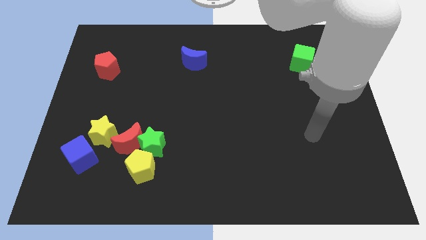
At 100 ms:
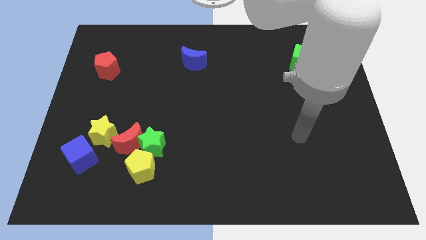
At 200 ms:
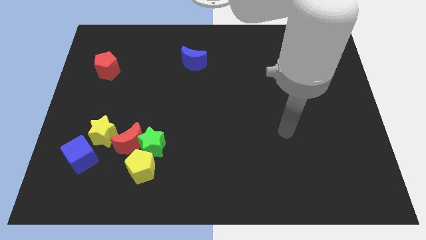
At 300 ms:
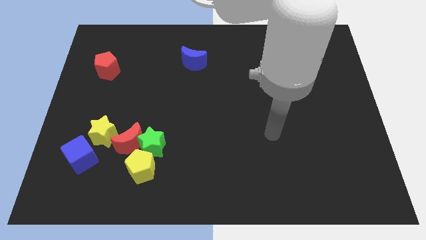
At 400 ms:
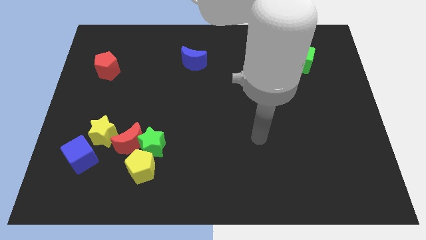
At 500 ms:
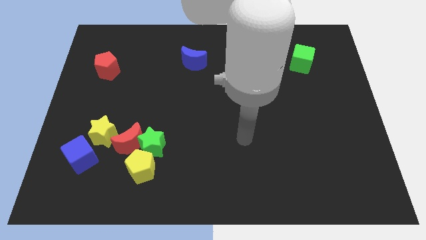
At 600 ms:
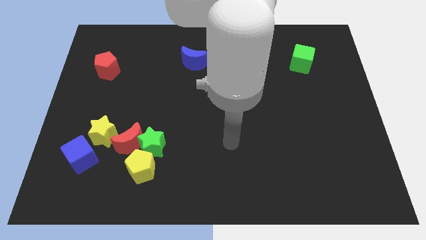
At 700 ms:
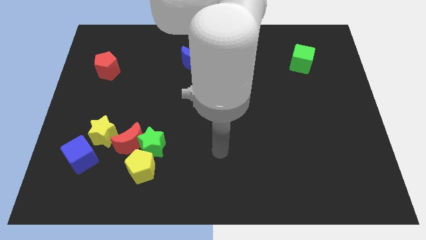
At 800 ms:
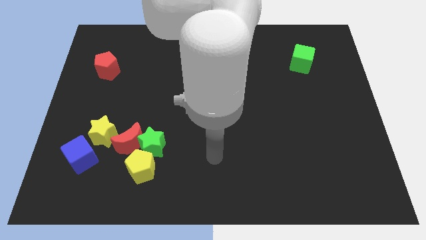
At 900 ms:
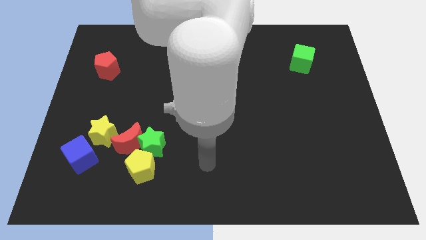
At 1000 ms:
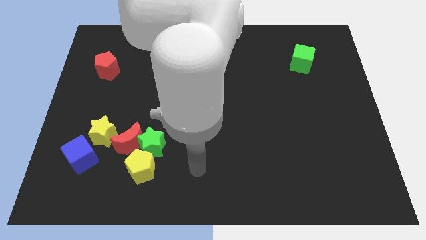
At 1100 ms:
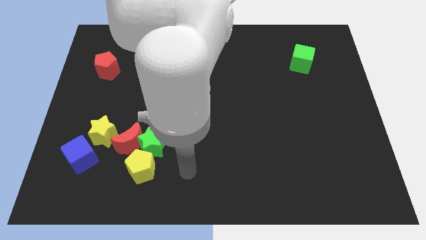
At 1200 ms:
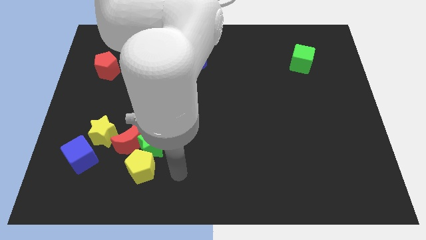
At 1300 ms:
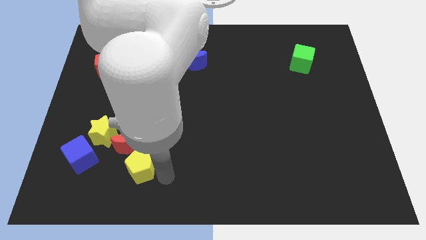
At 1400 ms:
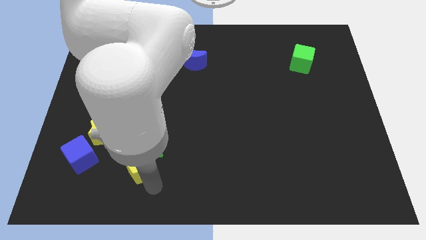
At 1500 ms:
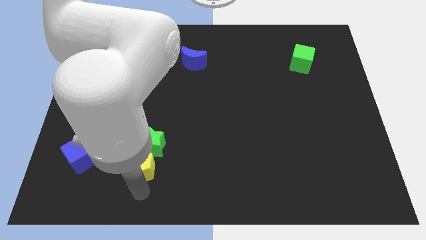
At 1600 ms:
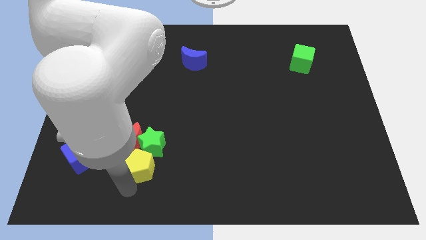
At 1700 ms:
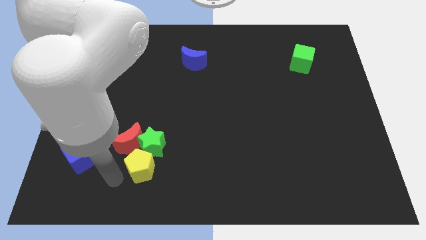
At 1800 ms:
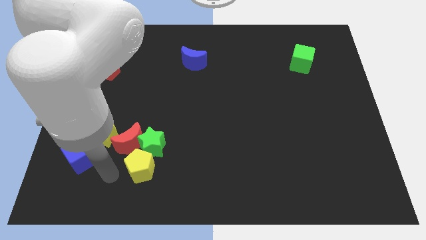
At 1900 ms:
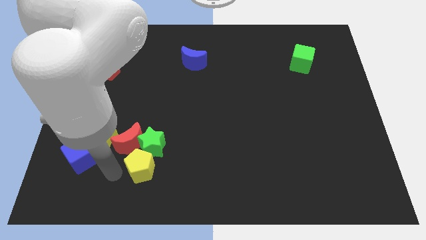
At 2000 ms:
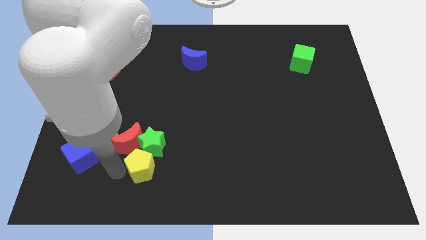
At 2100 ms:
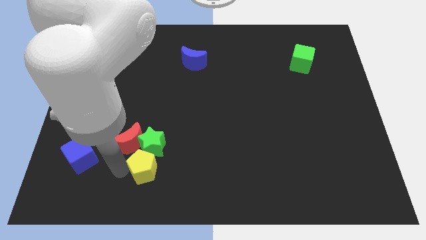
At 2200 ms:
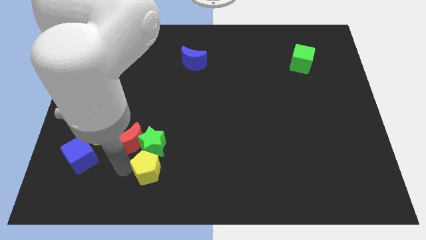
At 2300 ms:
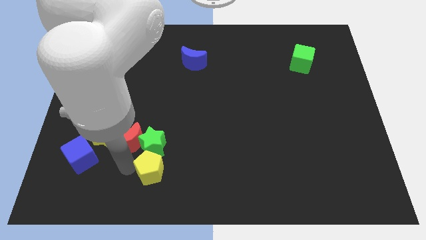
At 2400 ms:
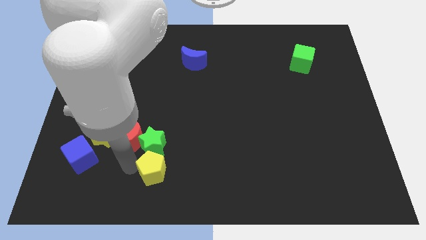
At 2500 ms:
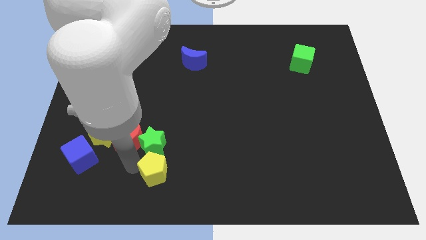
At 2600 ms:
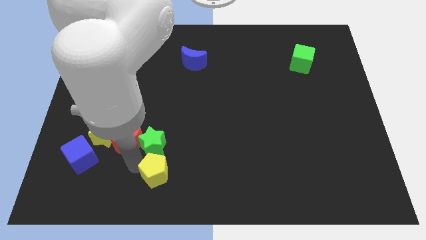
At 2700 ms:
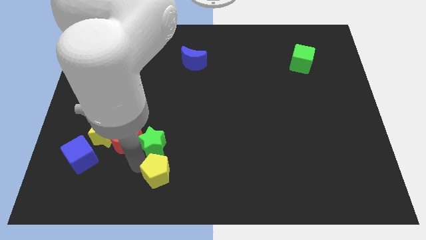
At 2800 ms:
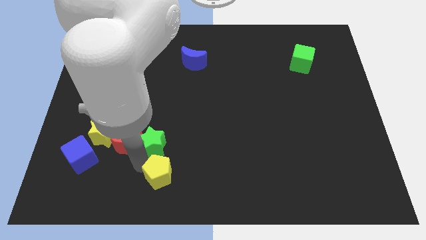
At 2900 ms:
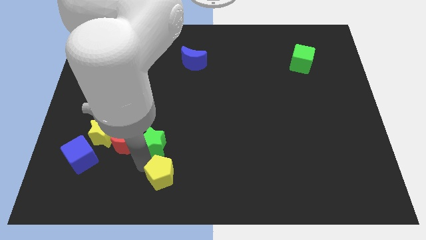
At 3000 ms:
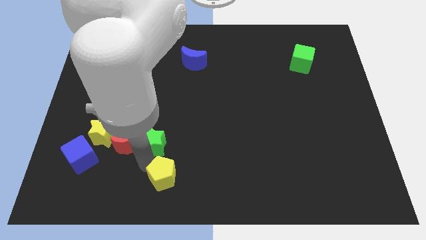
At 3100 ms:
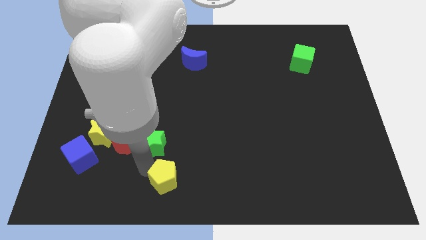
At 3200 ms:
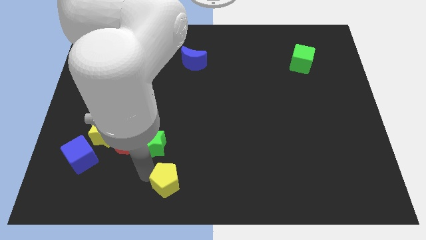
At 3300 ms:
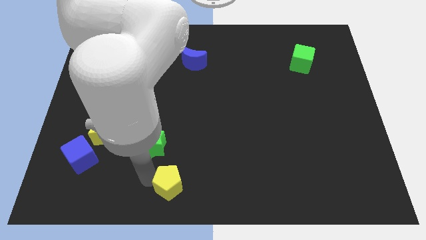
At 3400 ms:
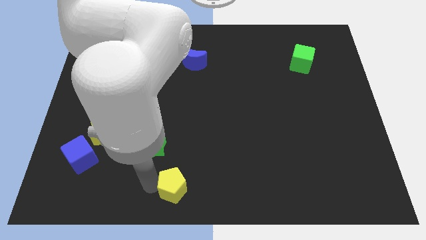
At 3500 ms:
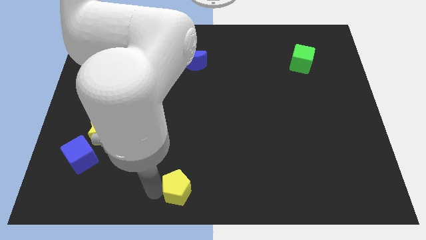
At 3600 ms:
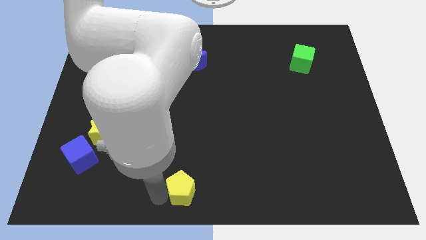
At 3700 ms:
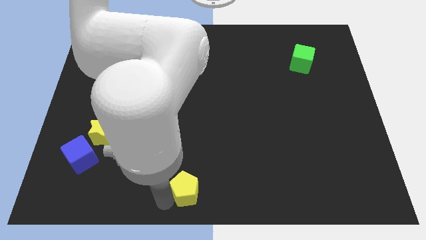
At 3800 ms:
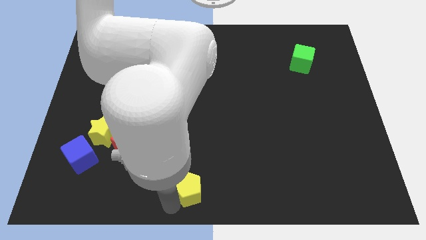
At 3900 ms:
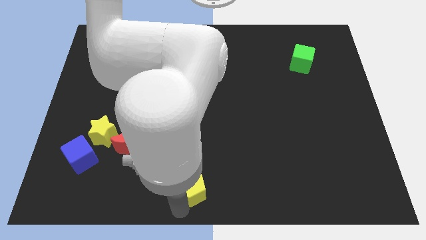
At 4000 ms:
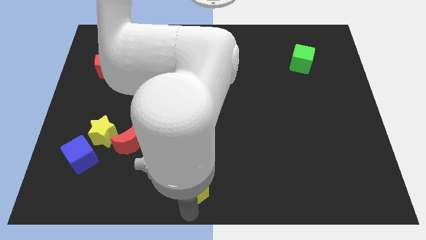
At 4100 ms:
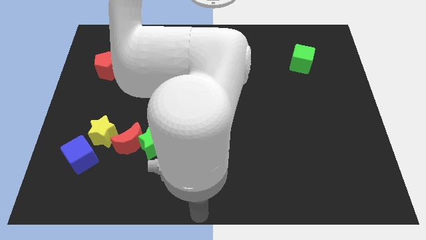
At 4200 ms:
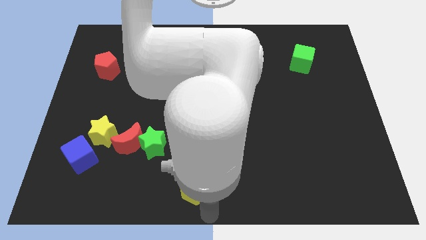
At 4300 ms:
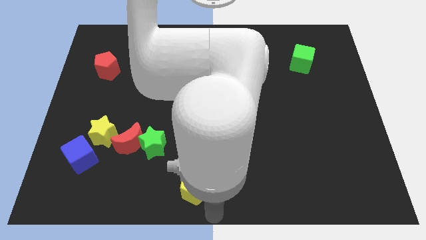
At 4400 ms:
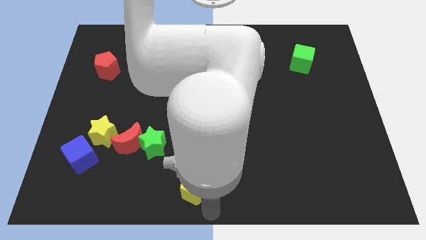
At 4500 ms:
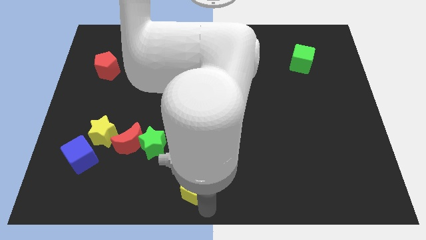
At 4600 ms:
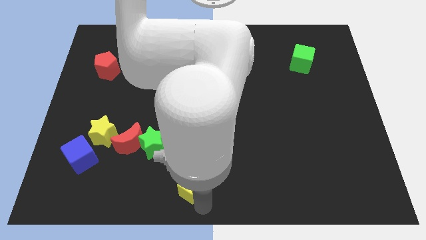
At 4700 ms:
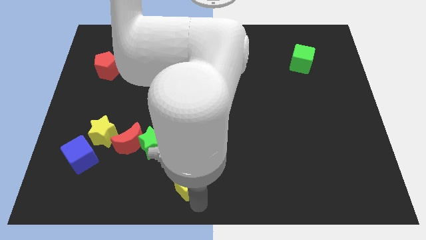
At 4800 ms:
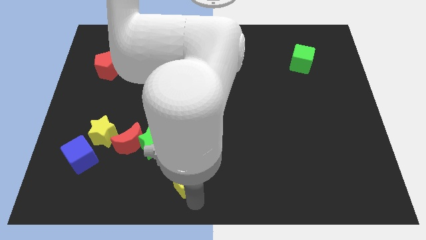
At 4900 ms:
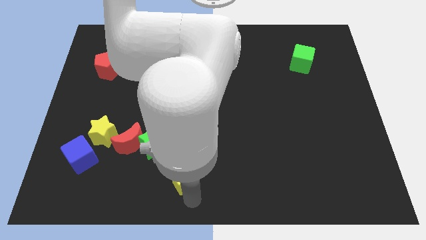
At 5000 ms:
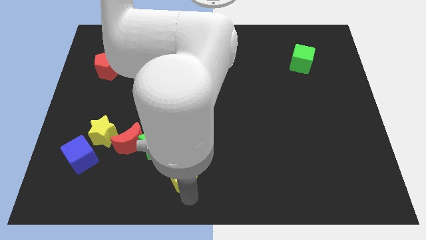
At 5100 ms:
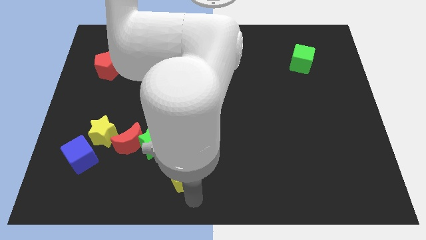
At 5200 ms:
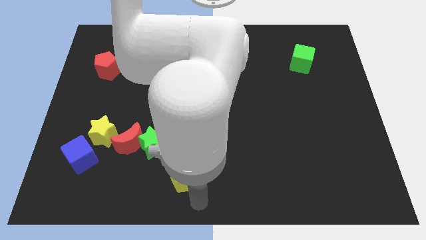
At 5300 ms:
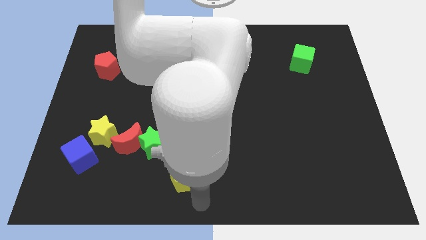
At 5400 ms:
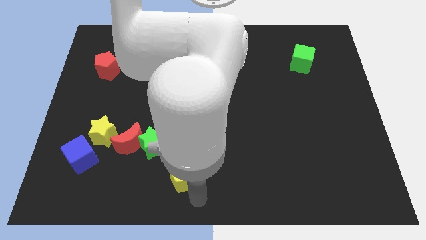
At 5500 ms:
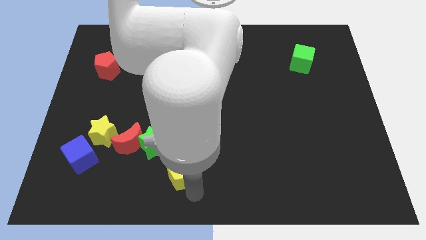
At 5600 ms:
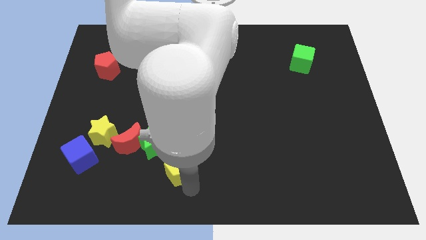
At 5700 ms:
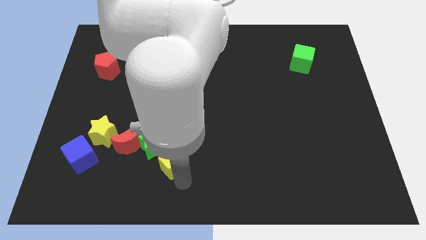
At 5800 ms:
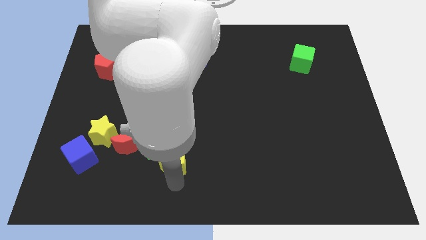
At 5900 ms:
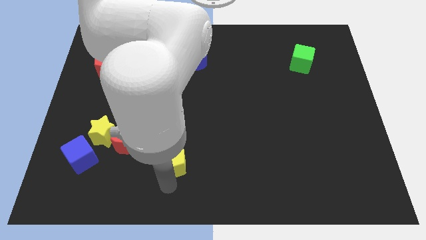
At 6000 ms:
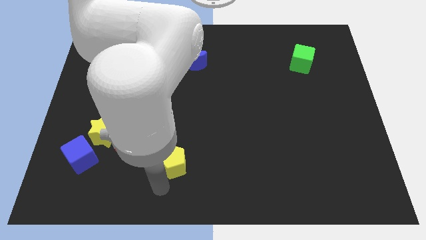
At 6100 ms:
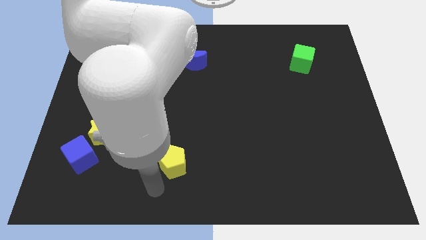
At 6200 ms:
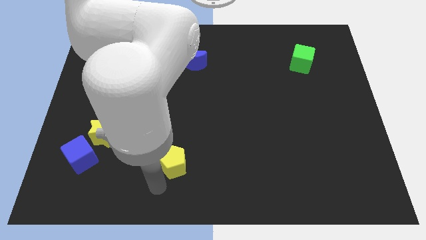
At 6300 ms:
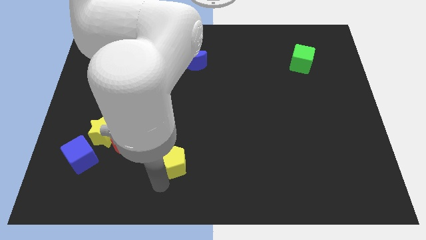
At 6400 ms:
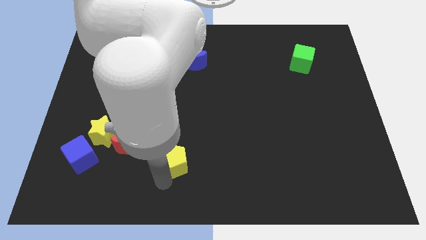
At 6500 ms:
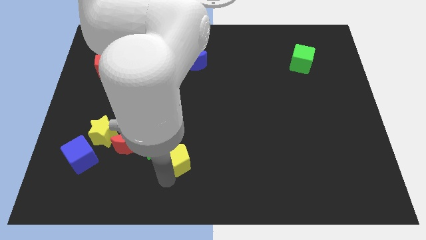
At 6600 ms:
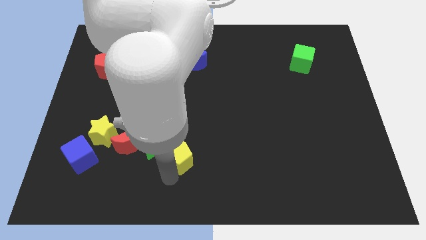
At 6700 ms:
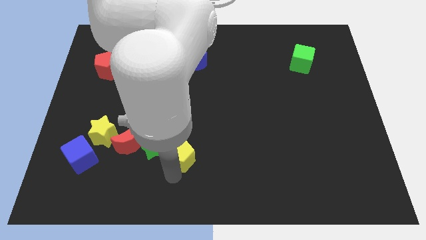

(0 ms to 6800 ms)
move the yellow pentagon diagonally upwards and to the right a bit

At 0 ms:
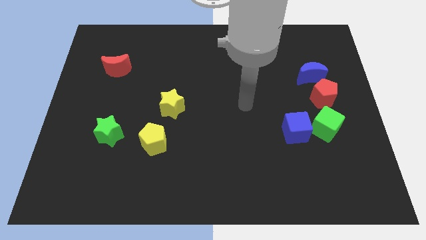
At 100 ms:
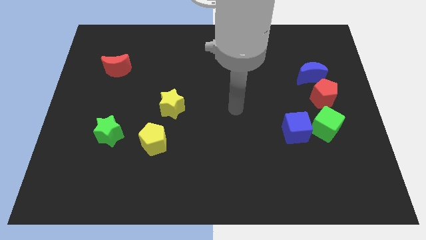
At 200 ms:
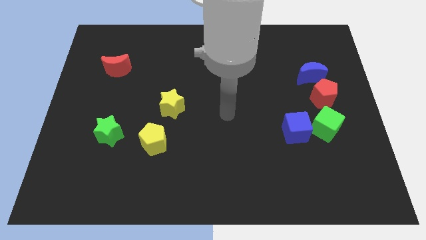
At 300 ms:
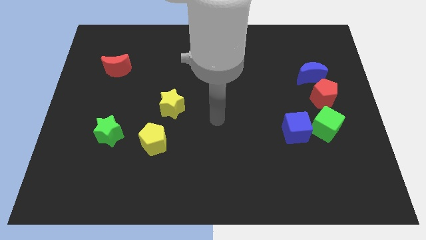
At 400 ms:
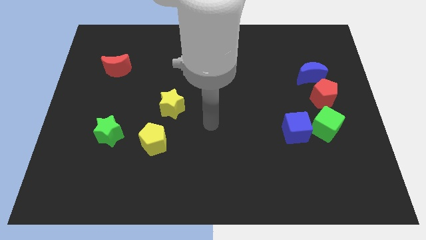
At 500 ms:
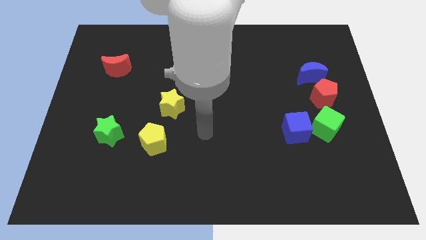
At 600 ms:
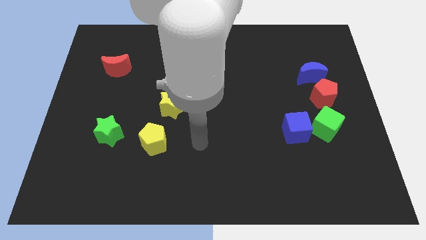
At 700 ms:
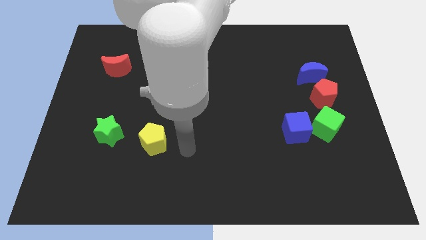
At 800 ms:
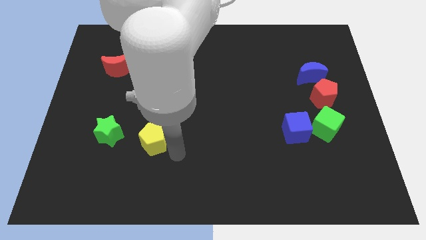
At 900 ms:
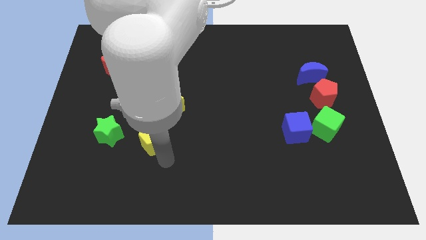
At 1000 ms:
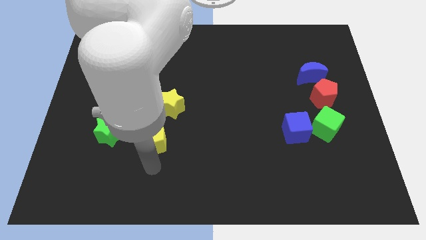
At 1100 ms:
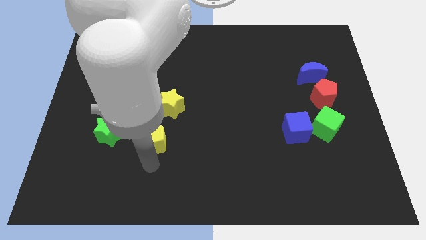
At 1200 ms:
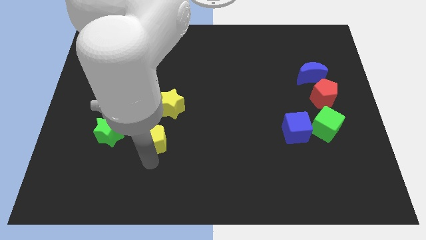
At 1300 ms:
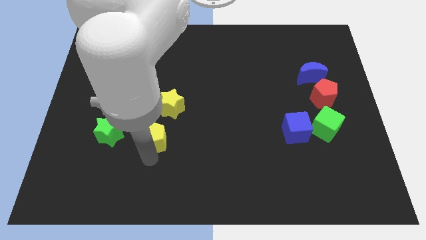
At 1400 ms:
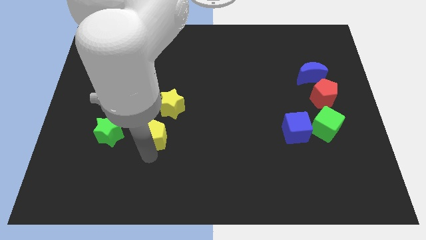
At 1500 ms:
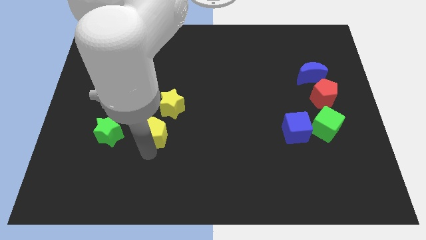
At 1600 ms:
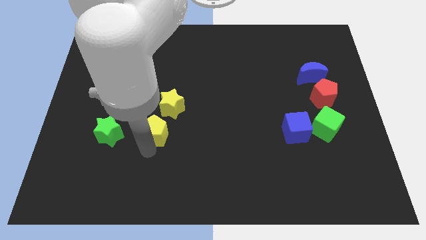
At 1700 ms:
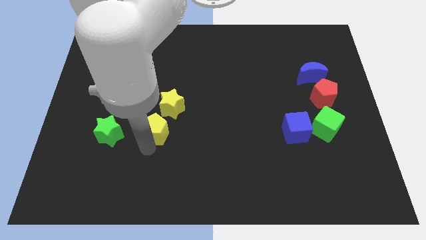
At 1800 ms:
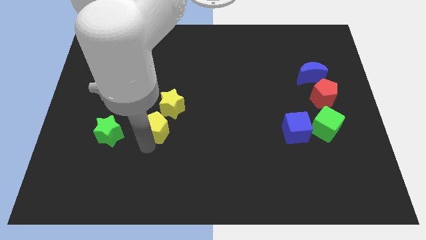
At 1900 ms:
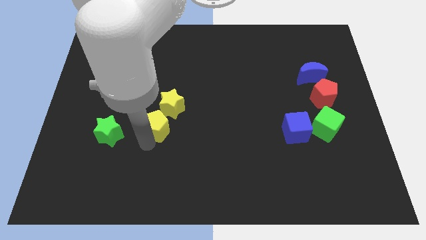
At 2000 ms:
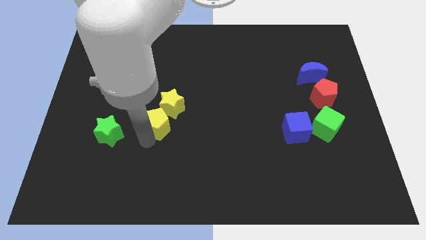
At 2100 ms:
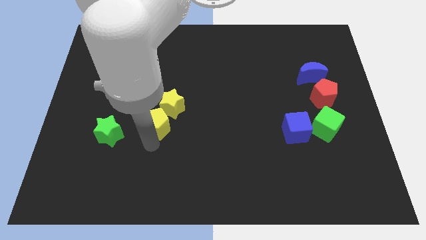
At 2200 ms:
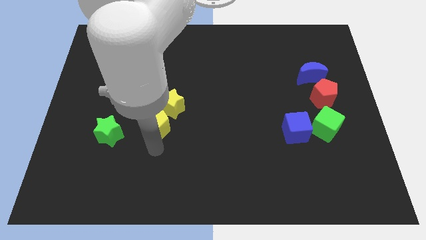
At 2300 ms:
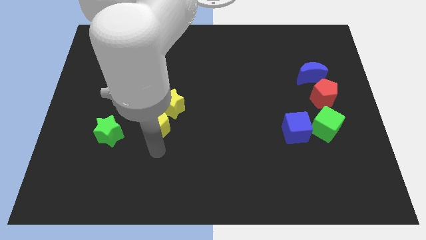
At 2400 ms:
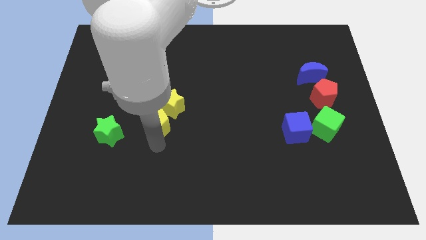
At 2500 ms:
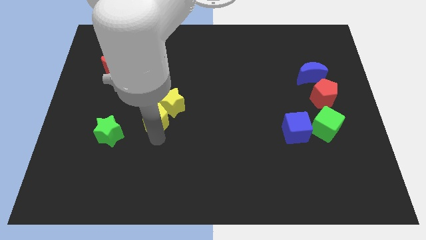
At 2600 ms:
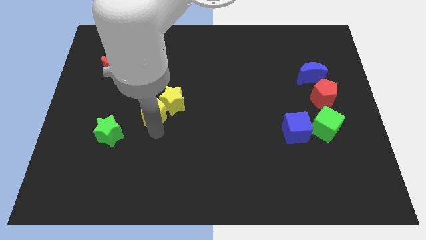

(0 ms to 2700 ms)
slide the yellow pentagon up a little
